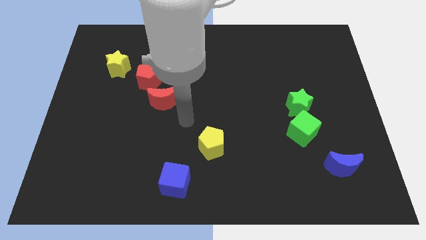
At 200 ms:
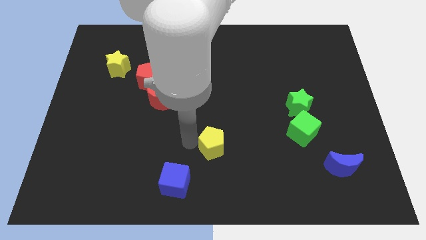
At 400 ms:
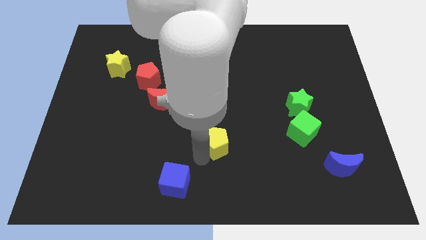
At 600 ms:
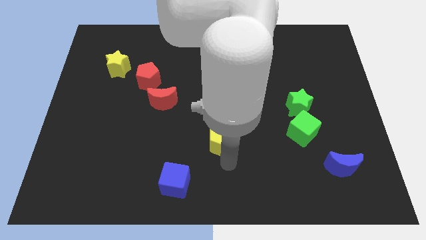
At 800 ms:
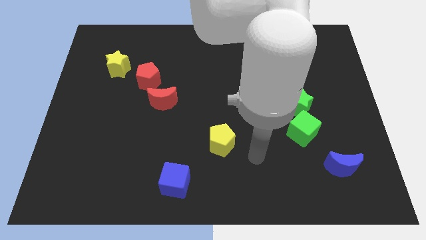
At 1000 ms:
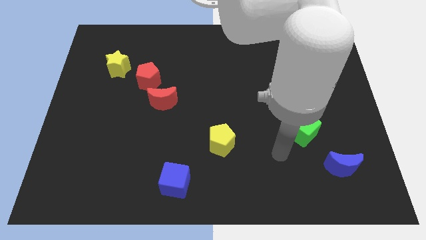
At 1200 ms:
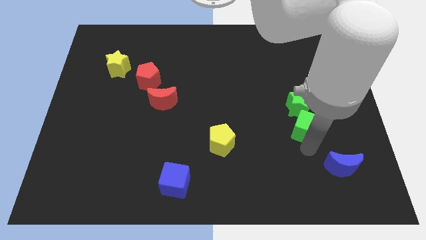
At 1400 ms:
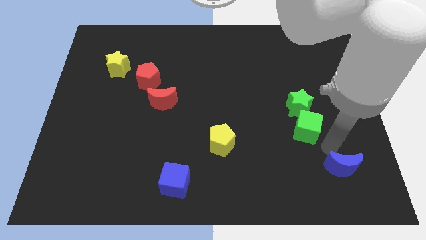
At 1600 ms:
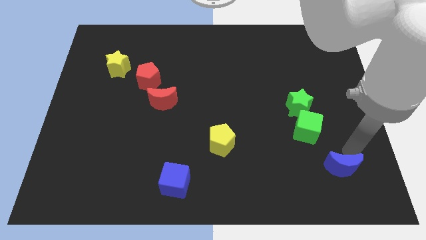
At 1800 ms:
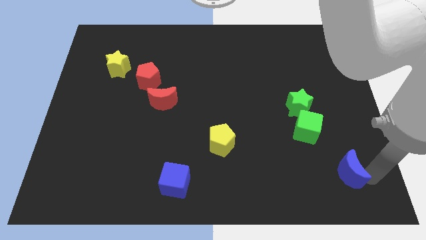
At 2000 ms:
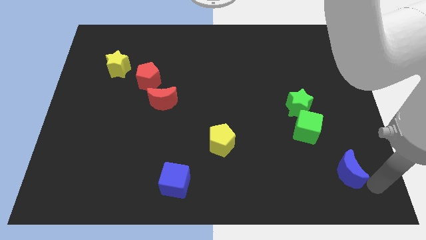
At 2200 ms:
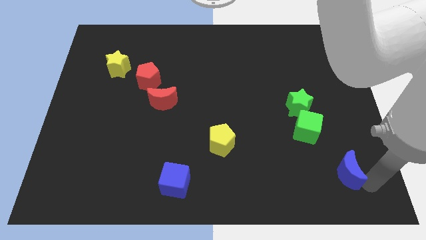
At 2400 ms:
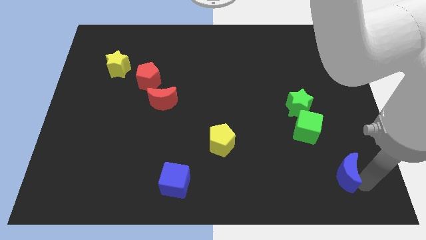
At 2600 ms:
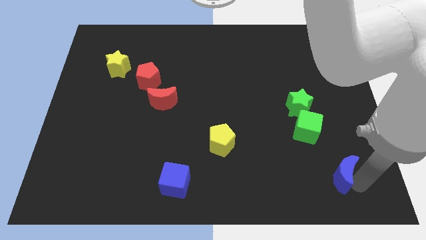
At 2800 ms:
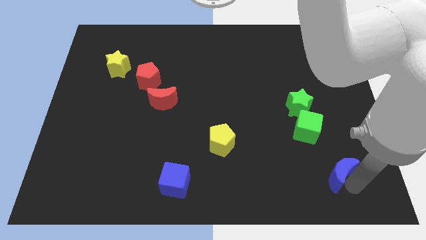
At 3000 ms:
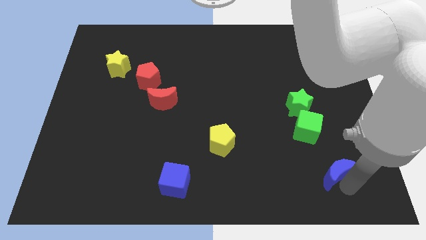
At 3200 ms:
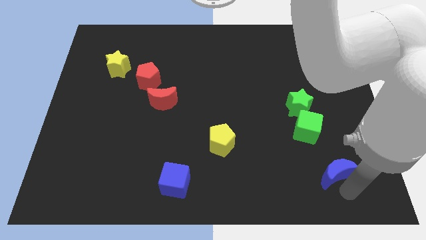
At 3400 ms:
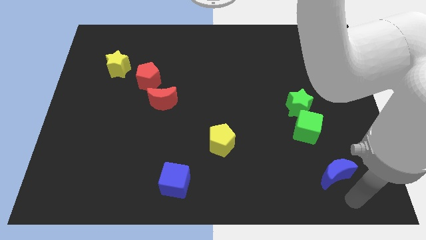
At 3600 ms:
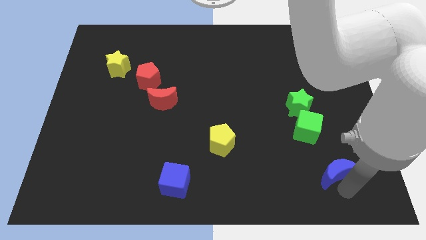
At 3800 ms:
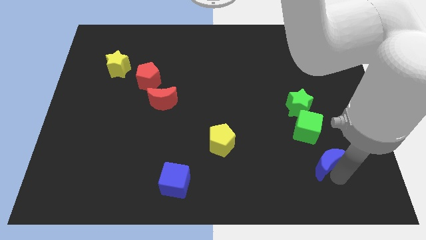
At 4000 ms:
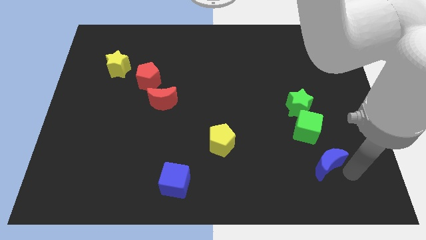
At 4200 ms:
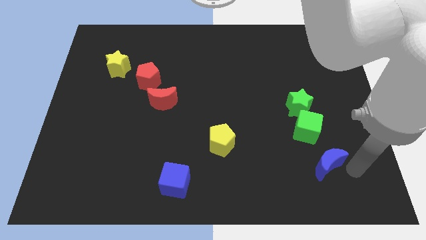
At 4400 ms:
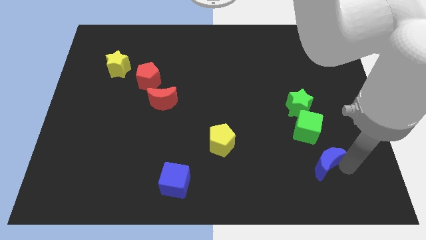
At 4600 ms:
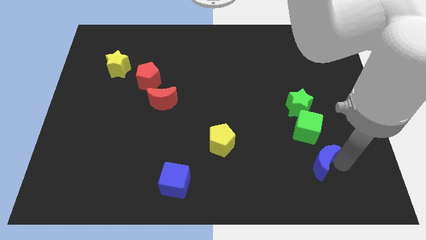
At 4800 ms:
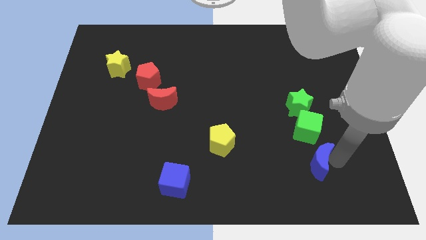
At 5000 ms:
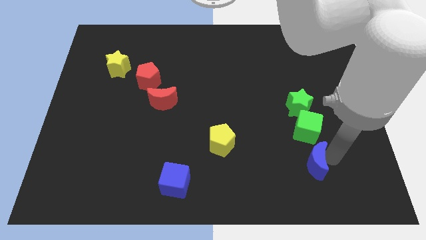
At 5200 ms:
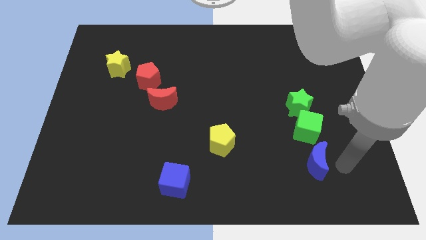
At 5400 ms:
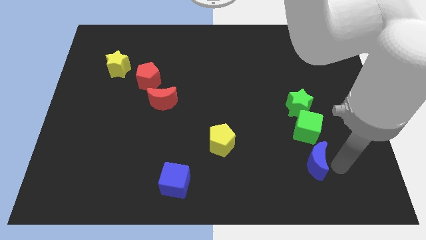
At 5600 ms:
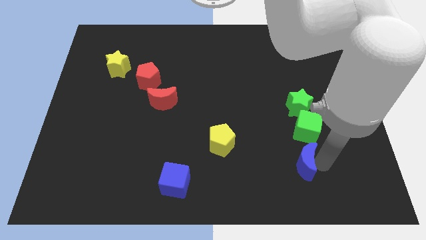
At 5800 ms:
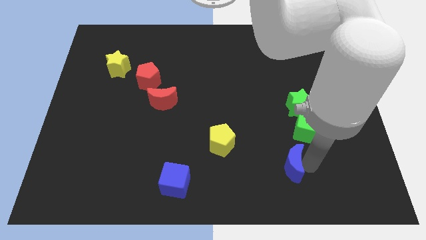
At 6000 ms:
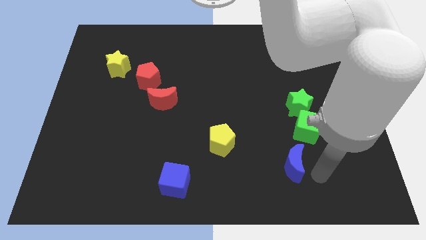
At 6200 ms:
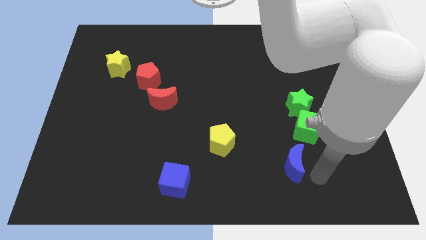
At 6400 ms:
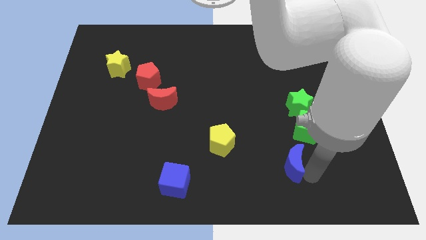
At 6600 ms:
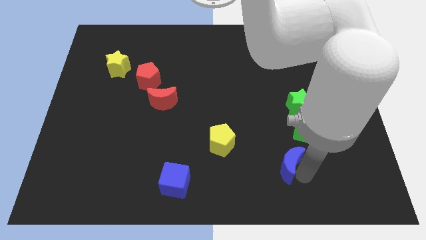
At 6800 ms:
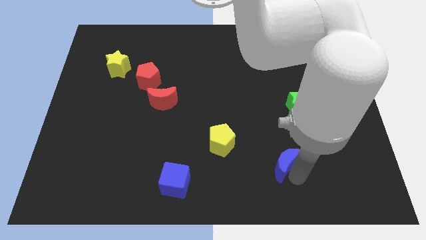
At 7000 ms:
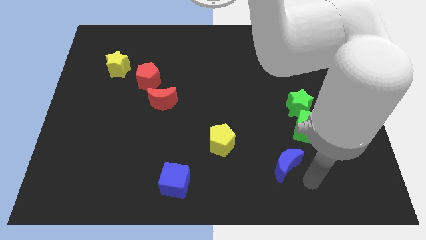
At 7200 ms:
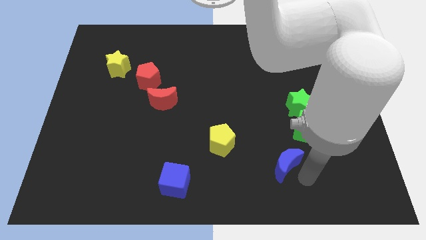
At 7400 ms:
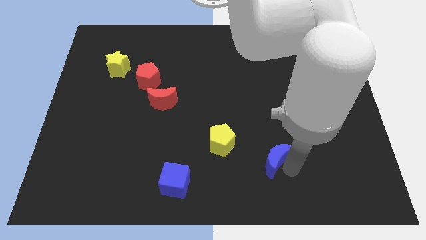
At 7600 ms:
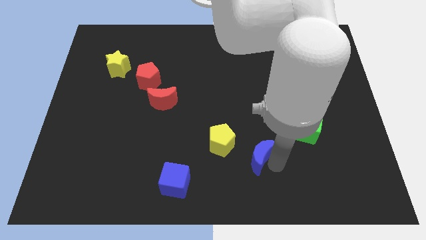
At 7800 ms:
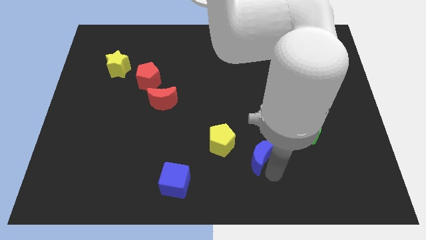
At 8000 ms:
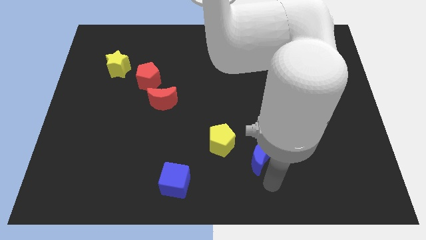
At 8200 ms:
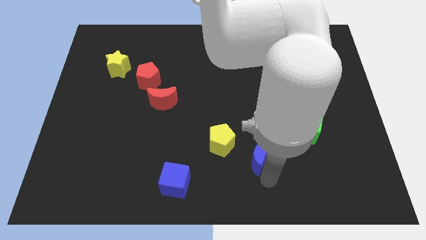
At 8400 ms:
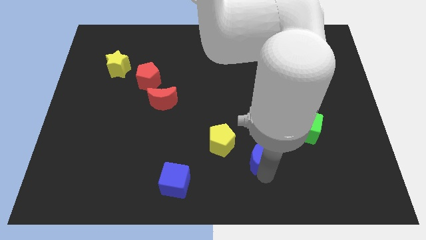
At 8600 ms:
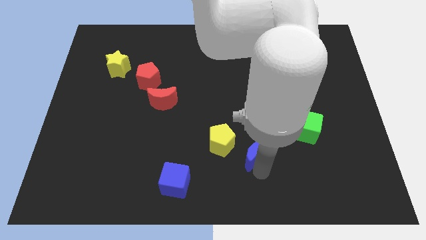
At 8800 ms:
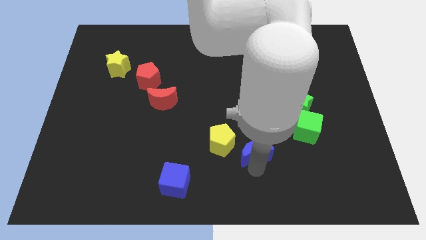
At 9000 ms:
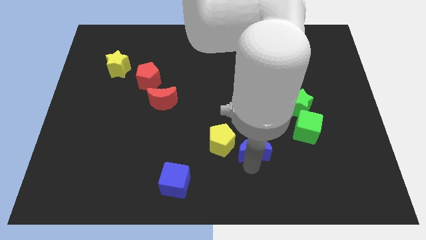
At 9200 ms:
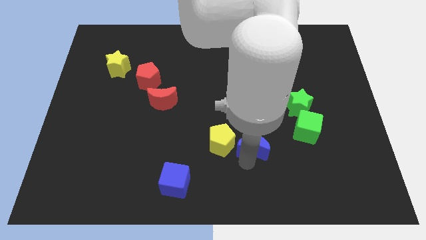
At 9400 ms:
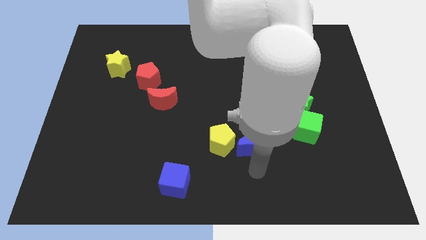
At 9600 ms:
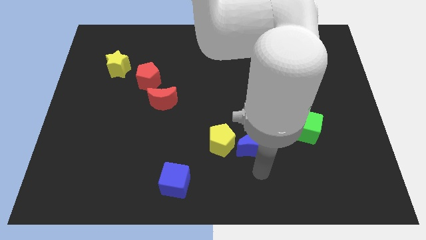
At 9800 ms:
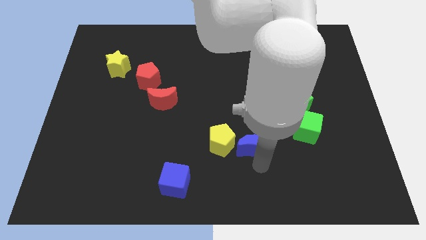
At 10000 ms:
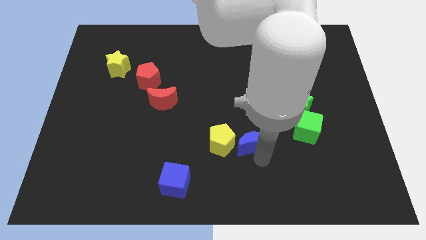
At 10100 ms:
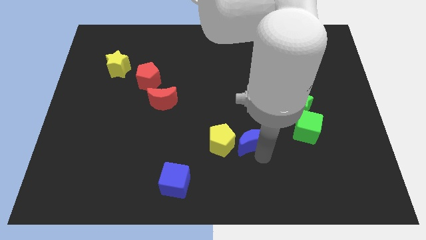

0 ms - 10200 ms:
push the blue moon to the top right side of the yellow pentagon

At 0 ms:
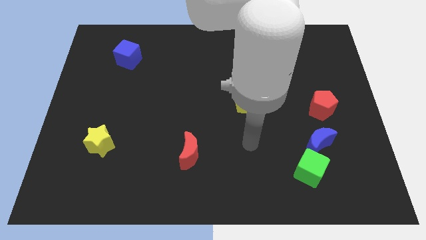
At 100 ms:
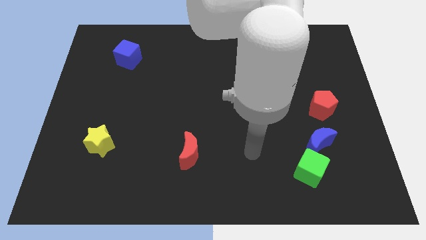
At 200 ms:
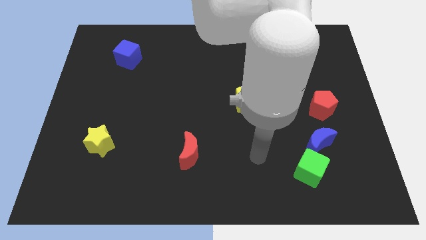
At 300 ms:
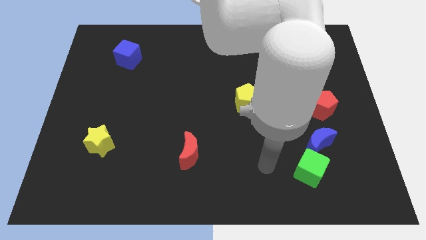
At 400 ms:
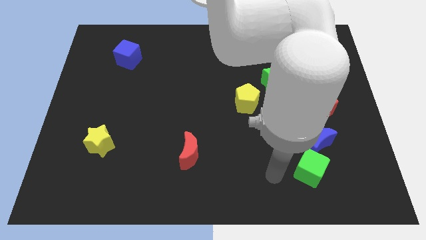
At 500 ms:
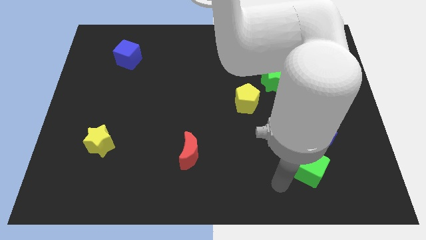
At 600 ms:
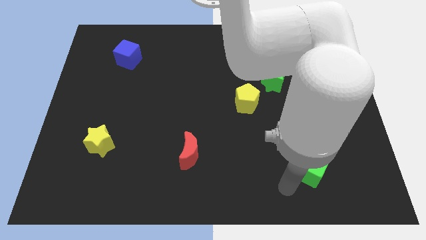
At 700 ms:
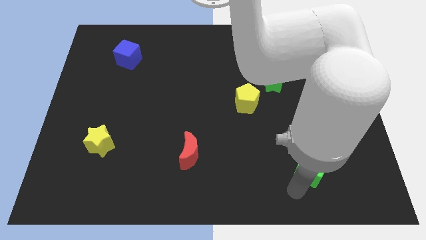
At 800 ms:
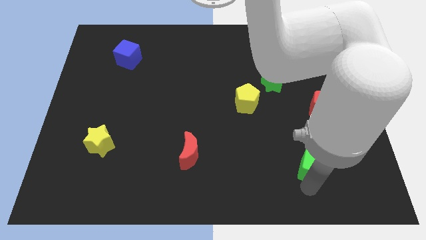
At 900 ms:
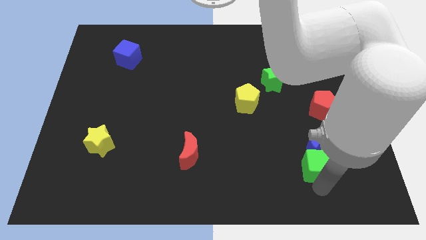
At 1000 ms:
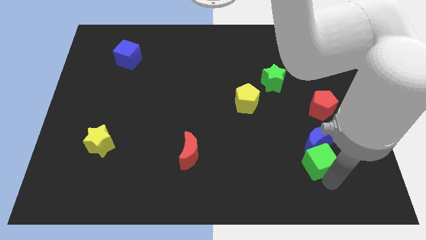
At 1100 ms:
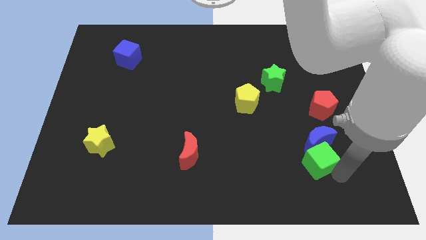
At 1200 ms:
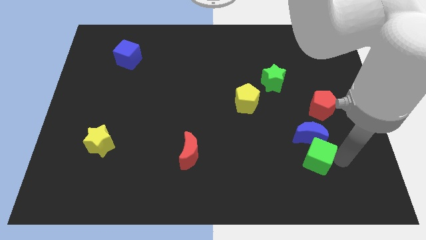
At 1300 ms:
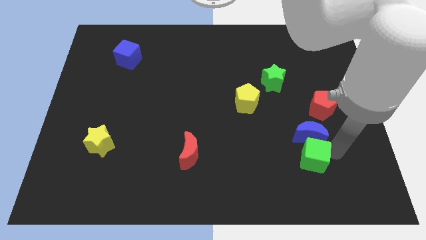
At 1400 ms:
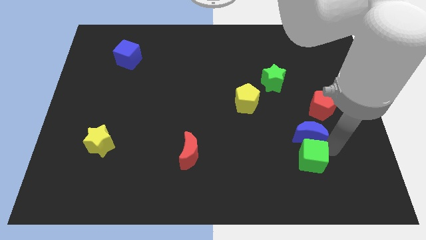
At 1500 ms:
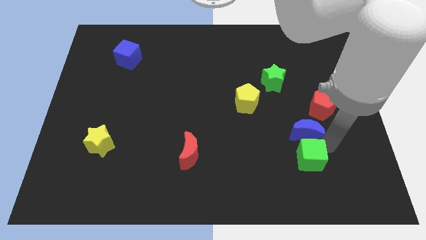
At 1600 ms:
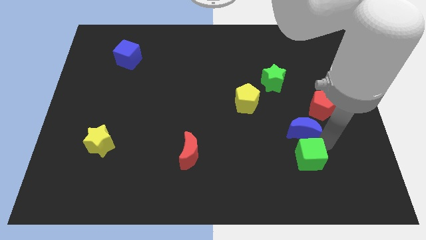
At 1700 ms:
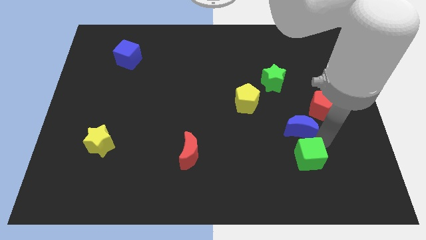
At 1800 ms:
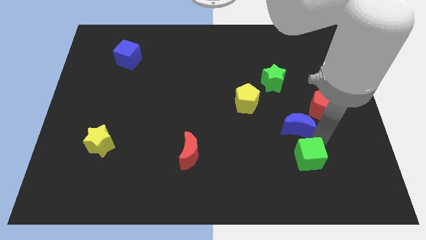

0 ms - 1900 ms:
move the blue moon below the green star
